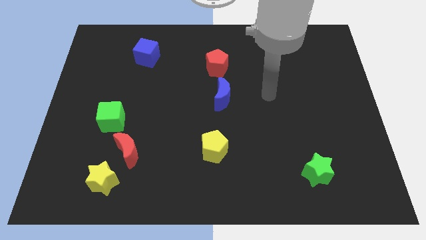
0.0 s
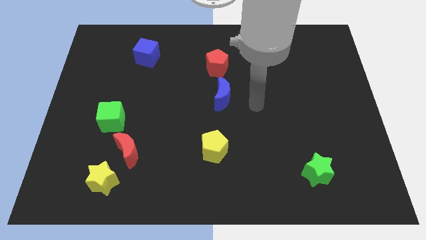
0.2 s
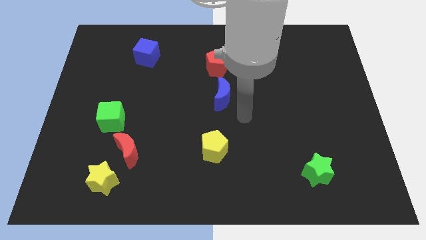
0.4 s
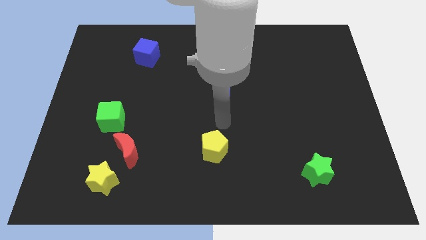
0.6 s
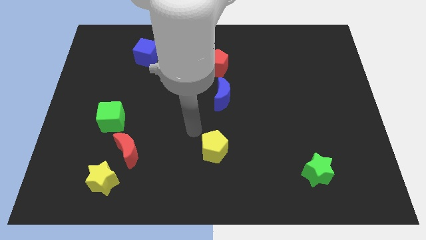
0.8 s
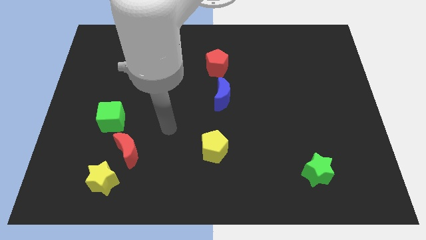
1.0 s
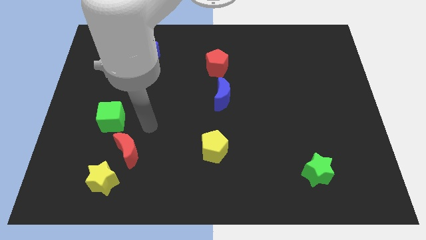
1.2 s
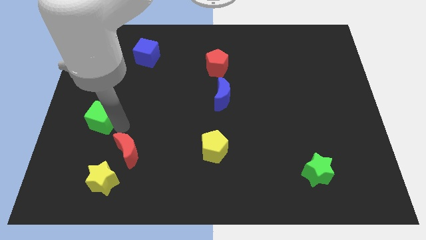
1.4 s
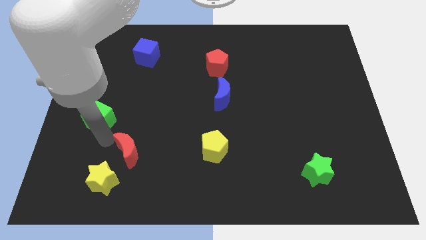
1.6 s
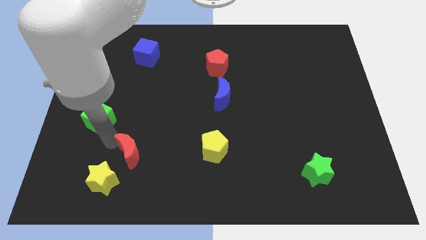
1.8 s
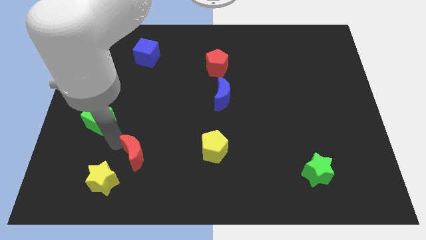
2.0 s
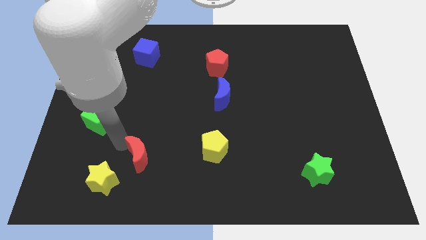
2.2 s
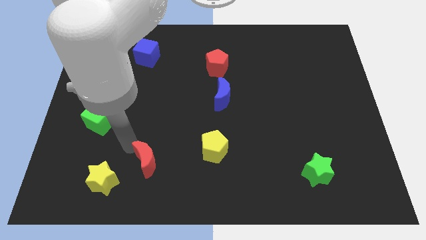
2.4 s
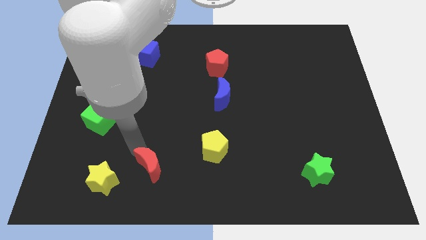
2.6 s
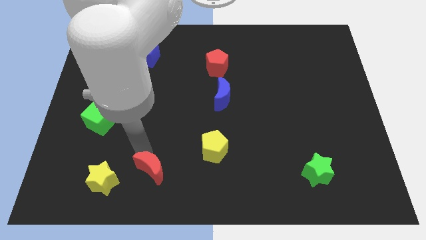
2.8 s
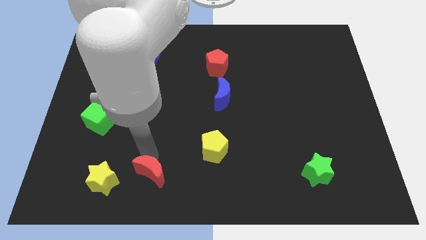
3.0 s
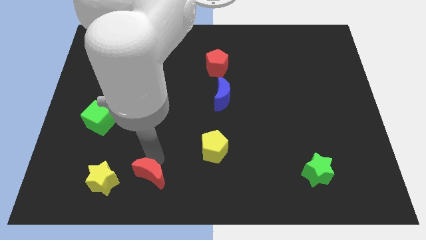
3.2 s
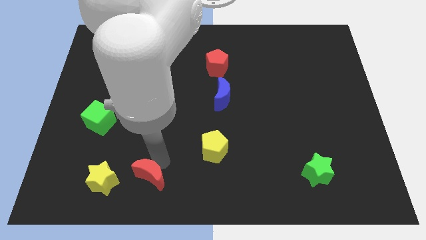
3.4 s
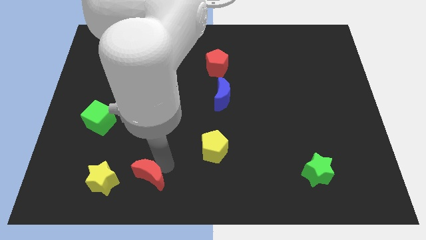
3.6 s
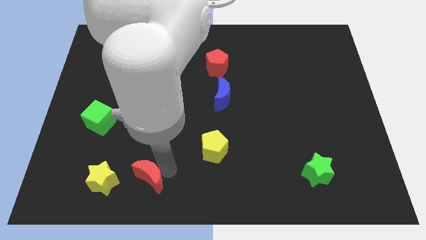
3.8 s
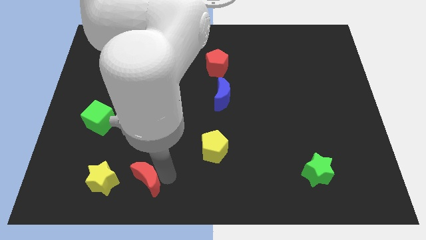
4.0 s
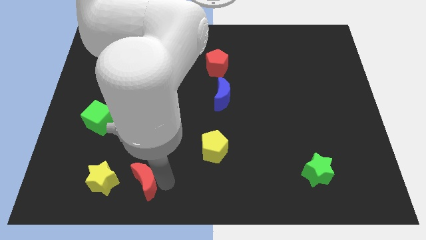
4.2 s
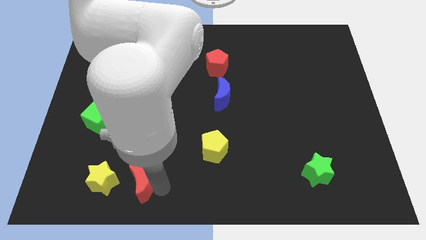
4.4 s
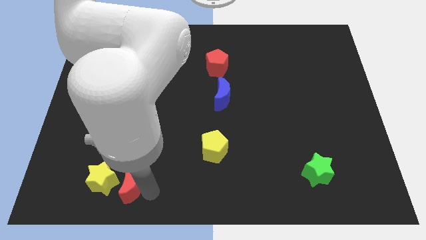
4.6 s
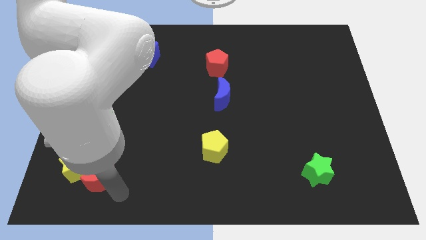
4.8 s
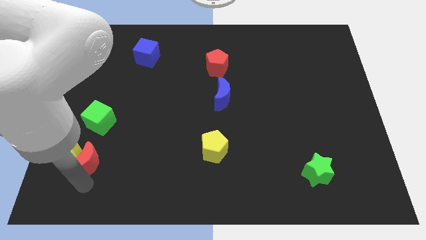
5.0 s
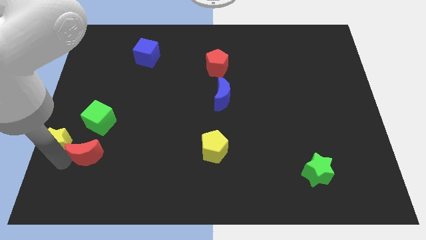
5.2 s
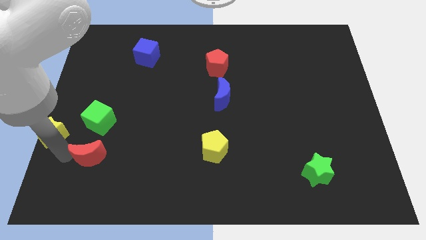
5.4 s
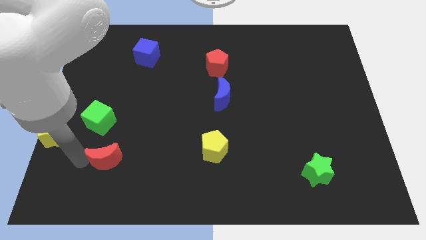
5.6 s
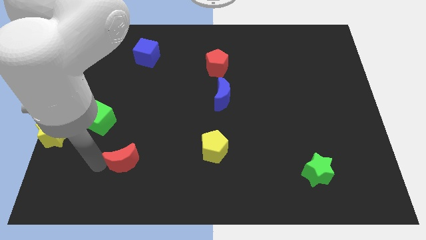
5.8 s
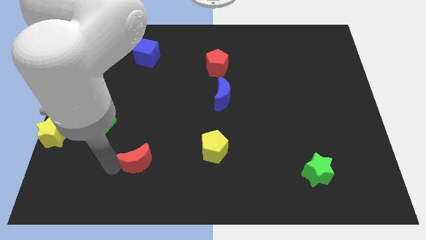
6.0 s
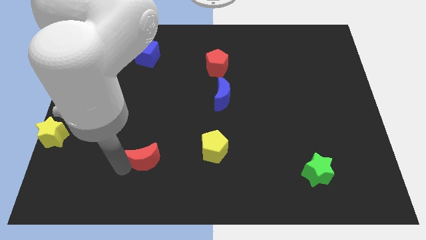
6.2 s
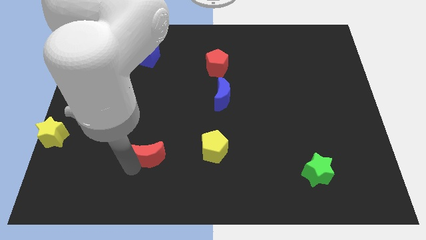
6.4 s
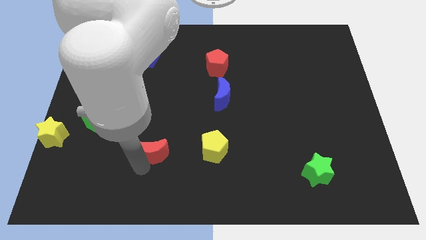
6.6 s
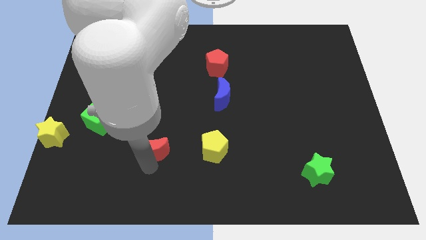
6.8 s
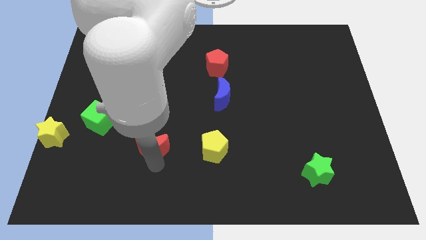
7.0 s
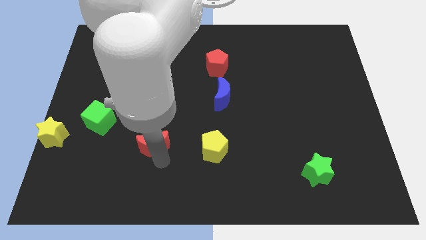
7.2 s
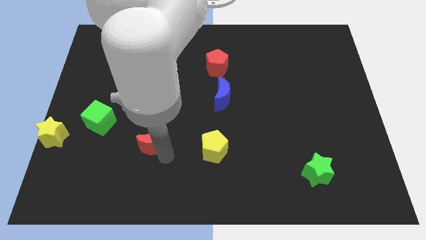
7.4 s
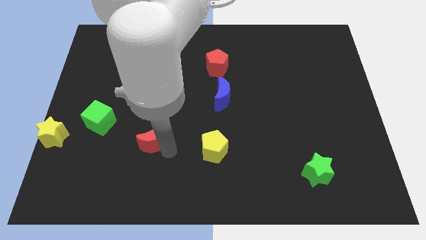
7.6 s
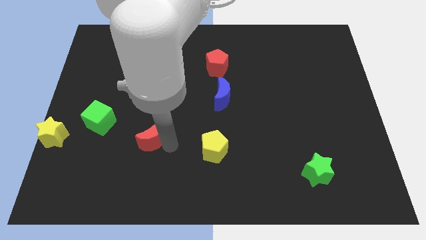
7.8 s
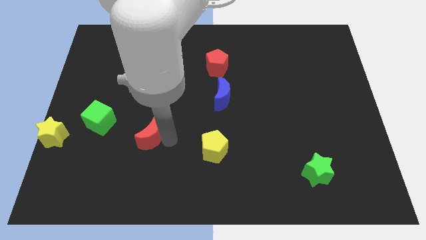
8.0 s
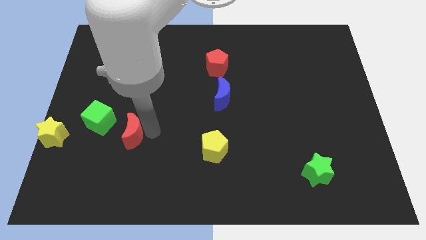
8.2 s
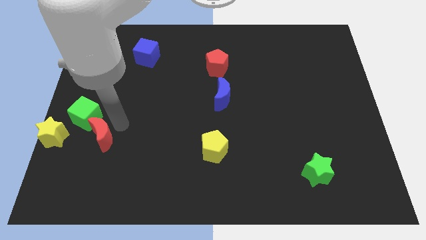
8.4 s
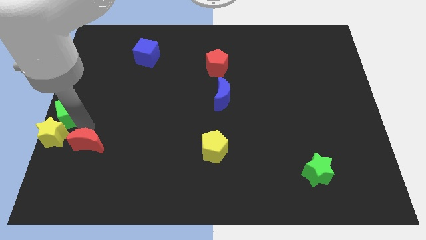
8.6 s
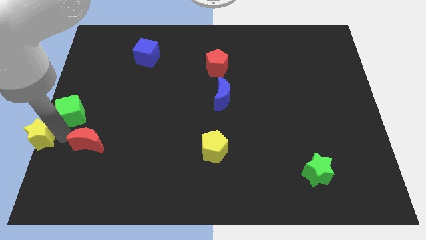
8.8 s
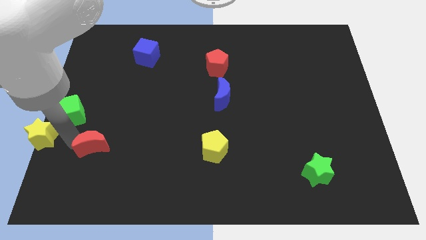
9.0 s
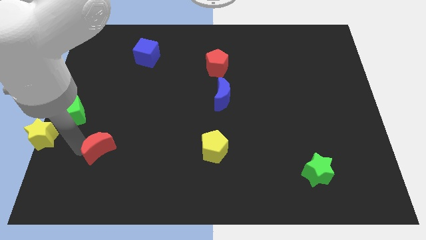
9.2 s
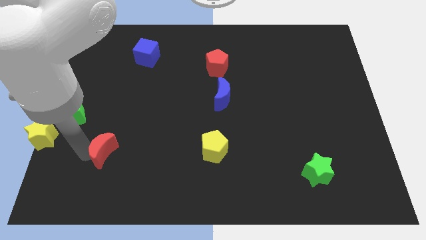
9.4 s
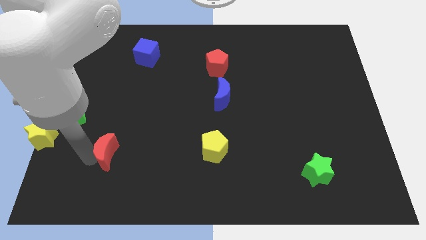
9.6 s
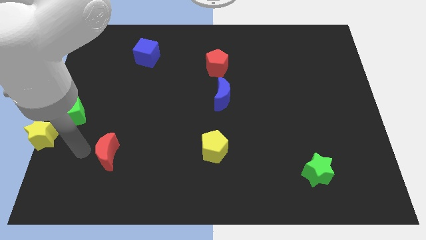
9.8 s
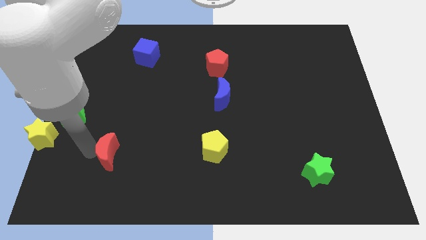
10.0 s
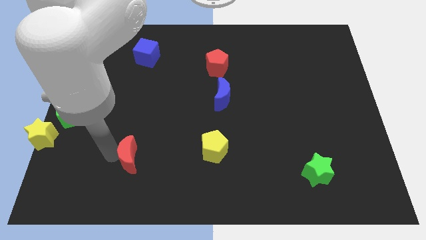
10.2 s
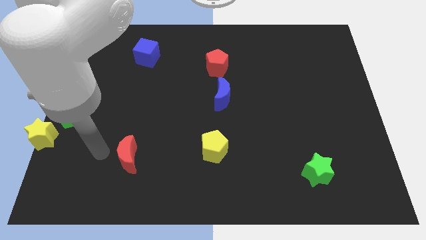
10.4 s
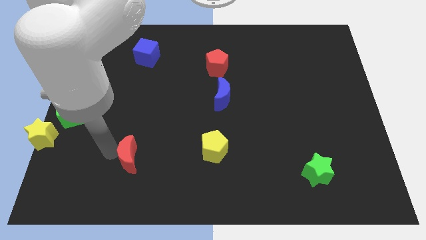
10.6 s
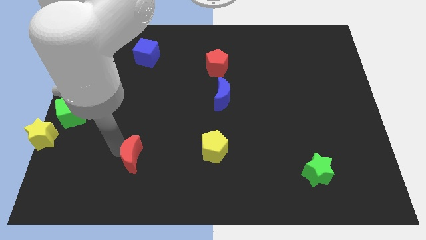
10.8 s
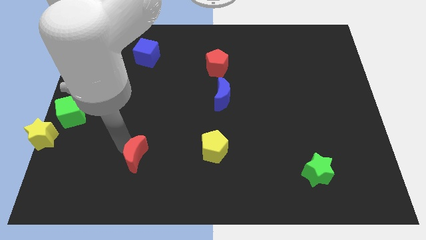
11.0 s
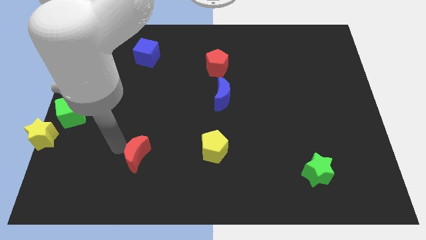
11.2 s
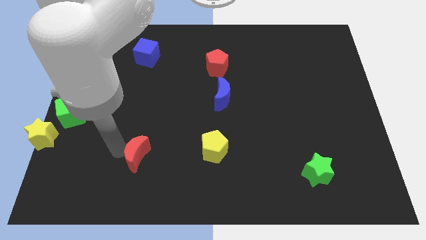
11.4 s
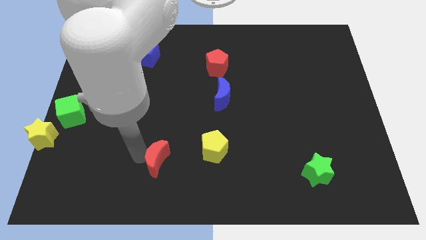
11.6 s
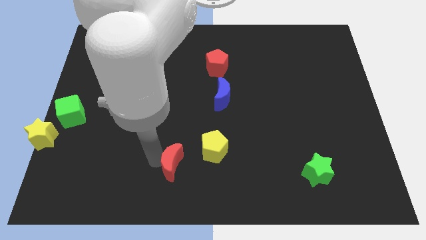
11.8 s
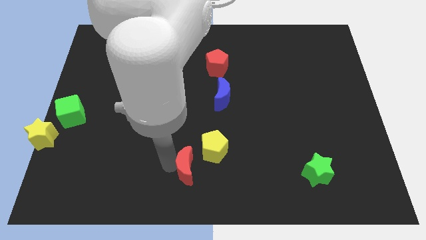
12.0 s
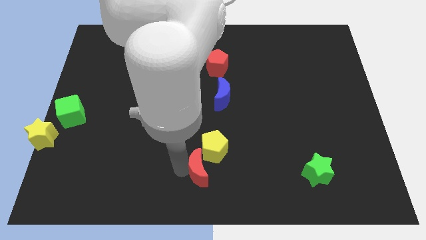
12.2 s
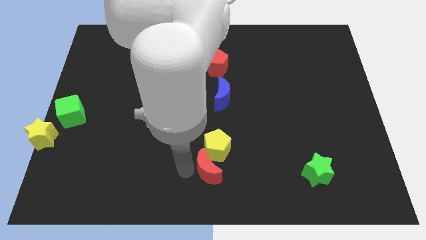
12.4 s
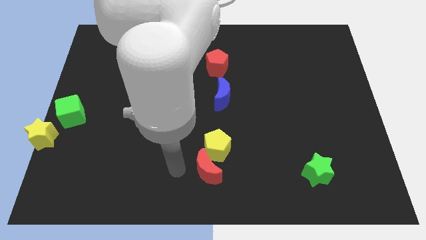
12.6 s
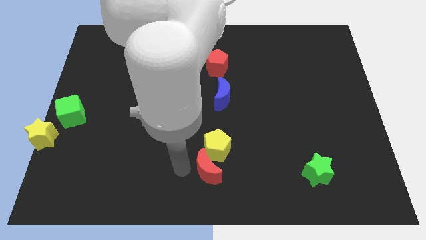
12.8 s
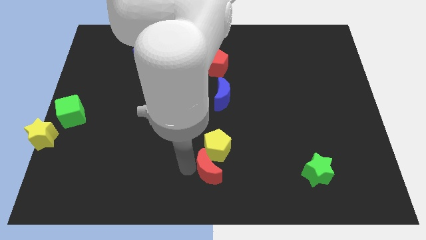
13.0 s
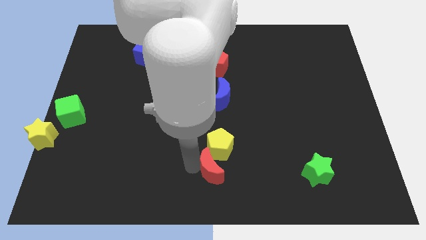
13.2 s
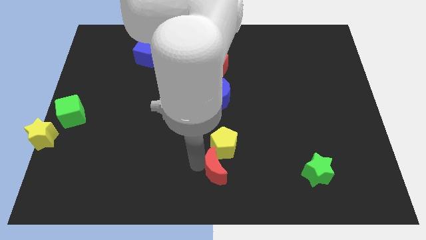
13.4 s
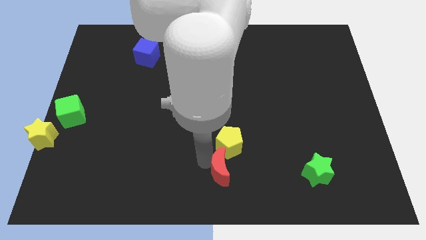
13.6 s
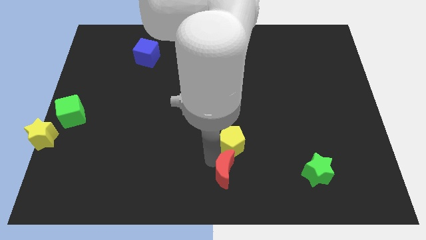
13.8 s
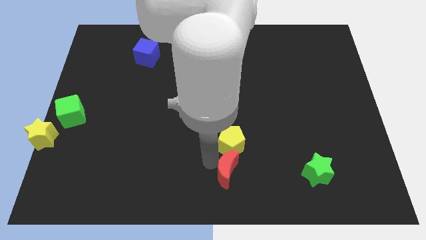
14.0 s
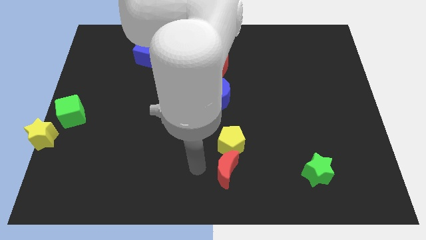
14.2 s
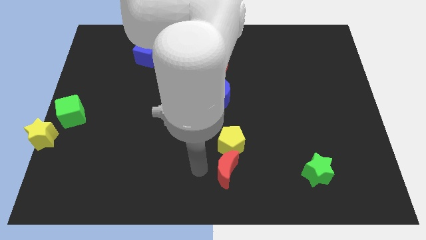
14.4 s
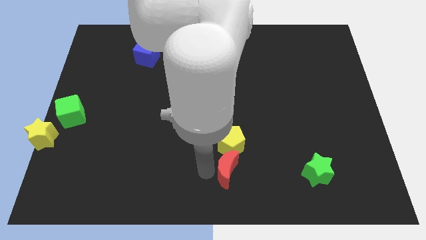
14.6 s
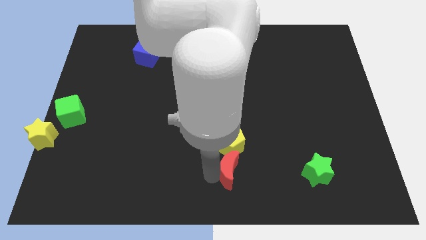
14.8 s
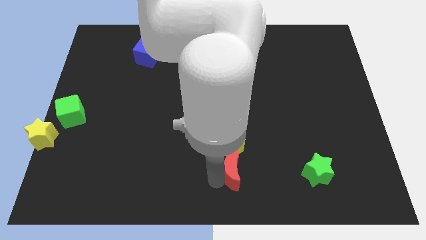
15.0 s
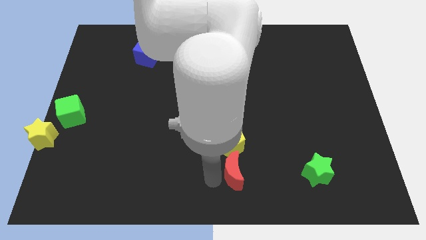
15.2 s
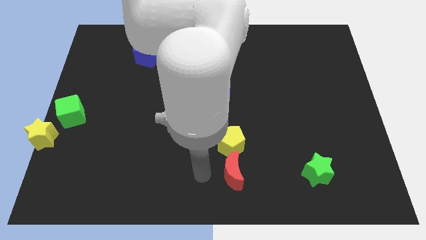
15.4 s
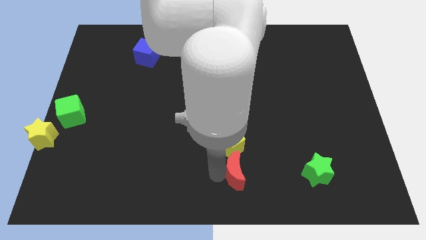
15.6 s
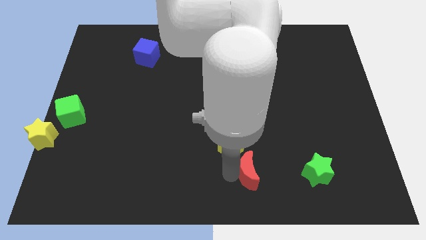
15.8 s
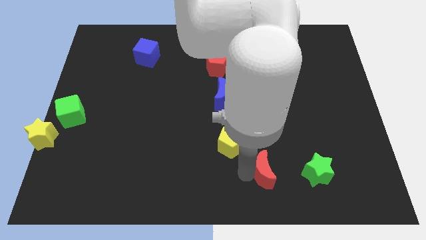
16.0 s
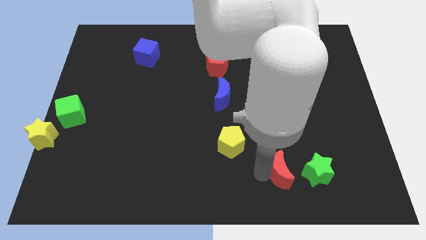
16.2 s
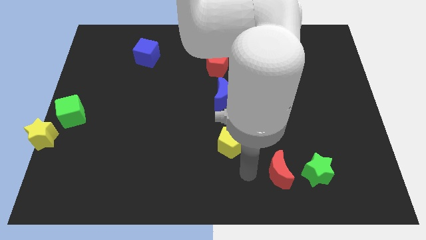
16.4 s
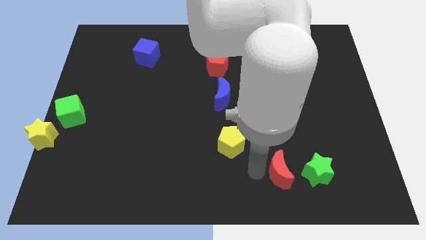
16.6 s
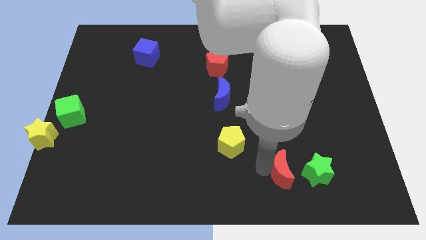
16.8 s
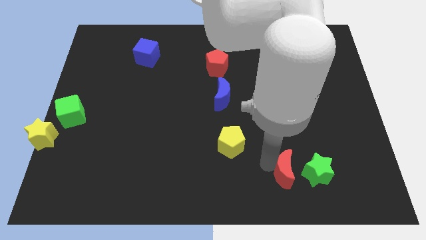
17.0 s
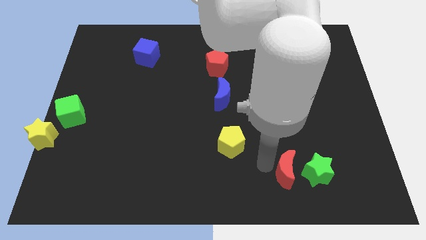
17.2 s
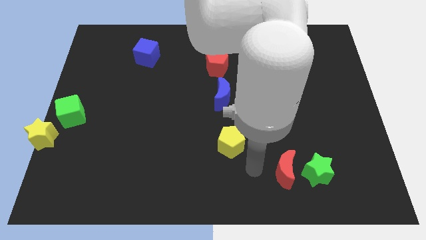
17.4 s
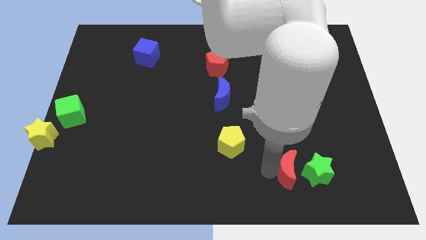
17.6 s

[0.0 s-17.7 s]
slide the red moon to the green star
